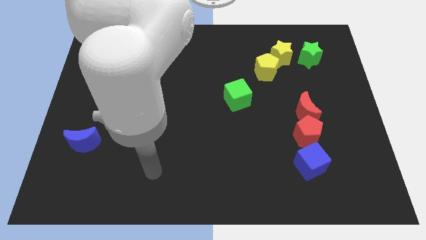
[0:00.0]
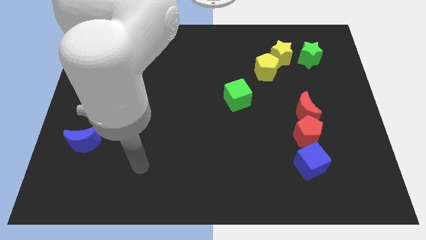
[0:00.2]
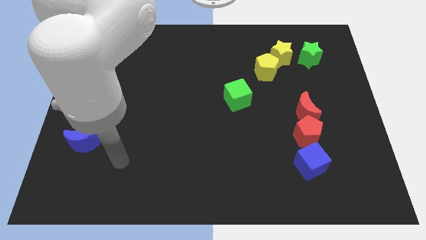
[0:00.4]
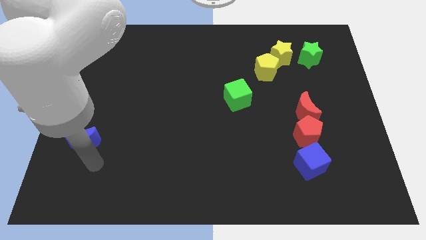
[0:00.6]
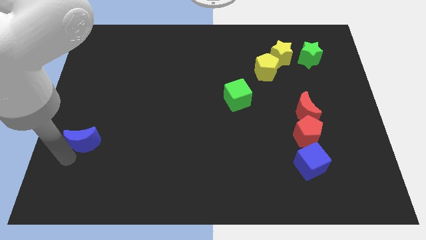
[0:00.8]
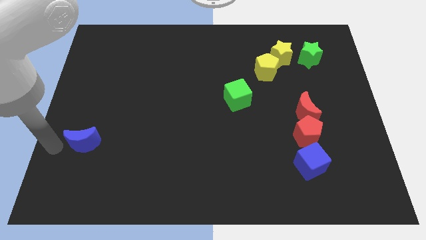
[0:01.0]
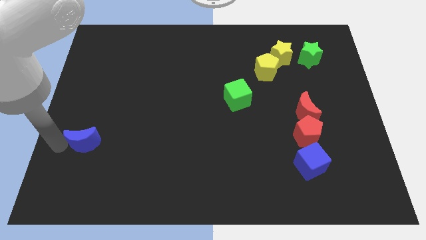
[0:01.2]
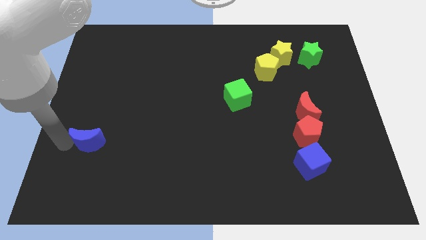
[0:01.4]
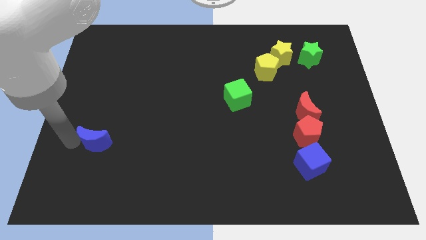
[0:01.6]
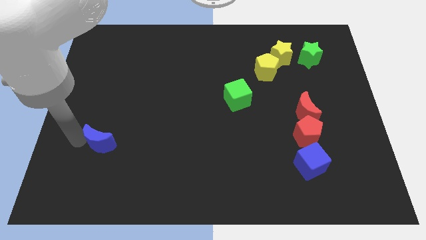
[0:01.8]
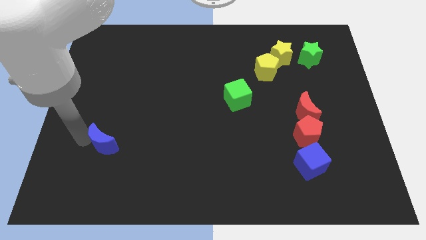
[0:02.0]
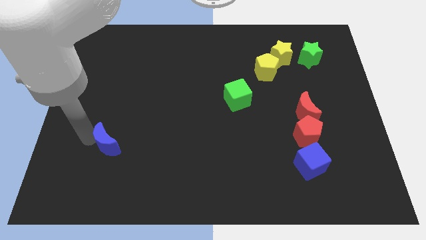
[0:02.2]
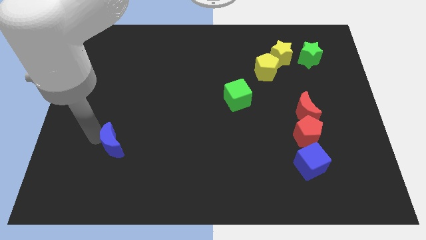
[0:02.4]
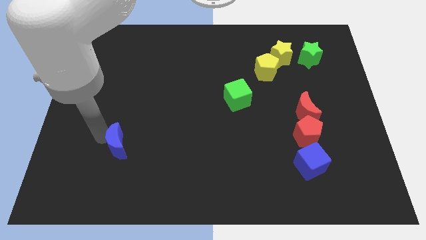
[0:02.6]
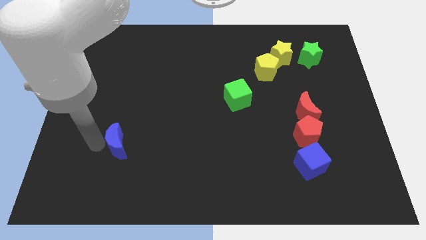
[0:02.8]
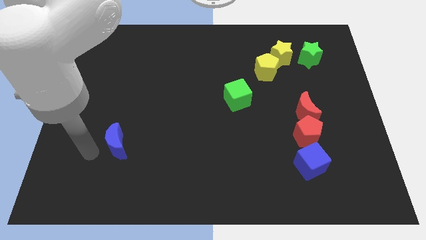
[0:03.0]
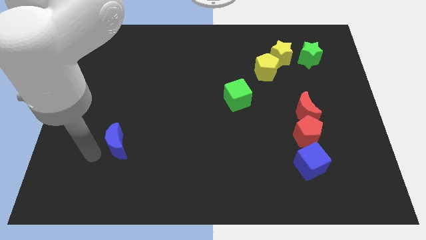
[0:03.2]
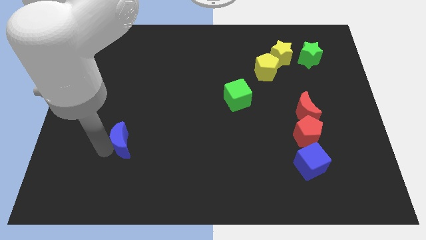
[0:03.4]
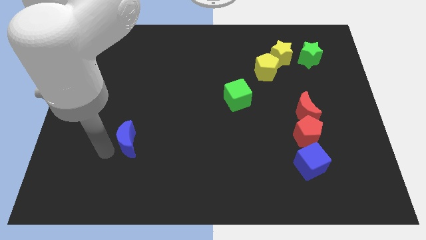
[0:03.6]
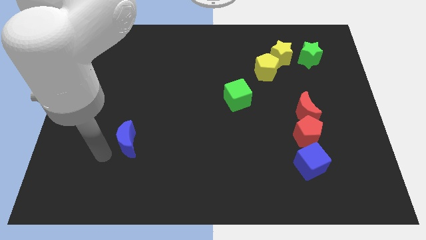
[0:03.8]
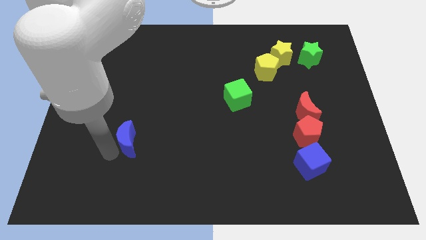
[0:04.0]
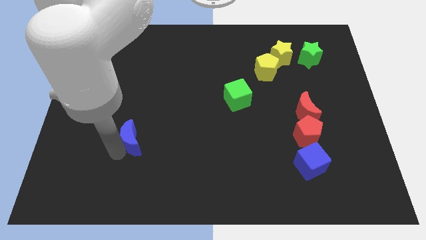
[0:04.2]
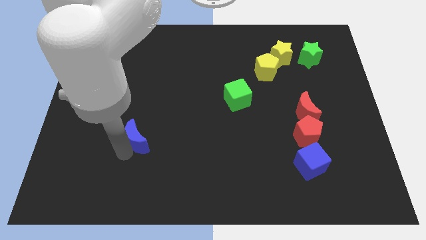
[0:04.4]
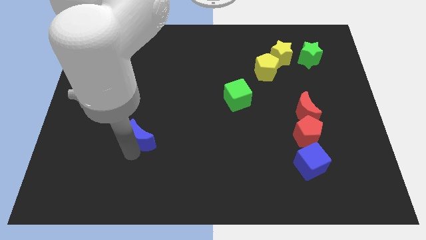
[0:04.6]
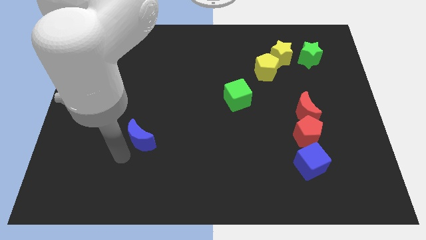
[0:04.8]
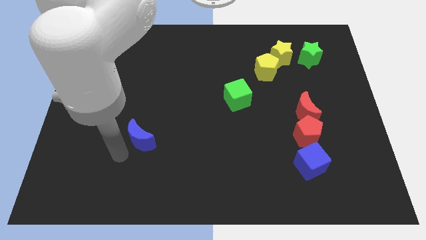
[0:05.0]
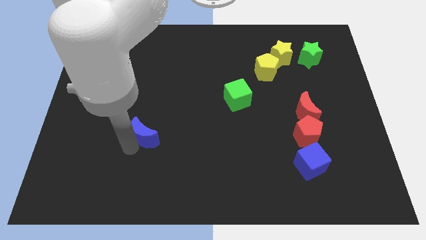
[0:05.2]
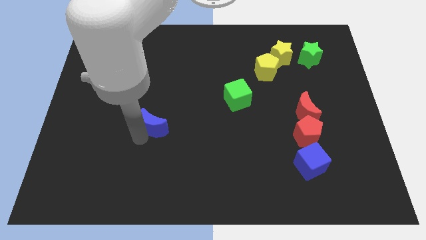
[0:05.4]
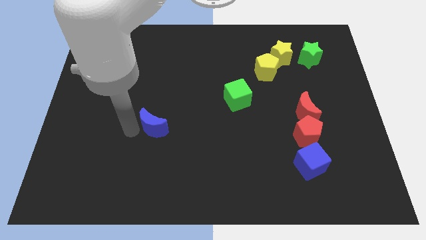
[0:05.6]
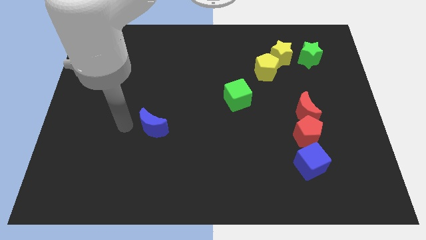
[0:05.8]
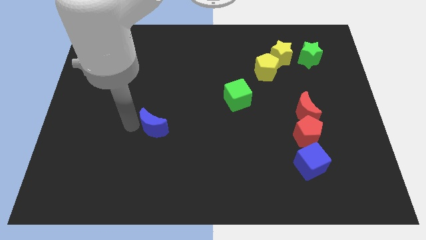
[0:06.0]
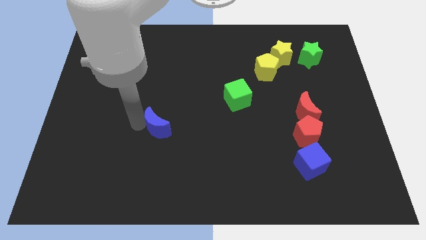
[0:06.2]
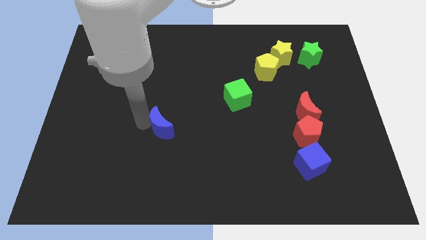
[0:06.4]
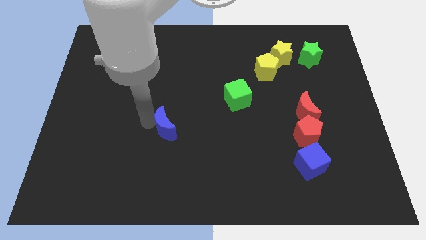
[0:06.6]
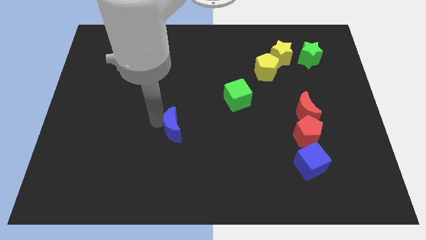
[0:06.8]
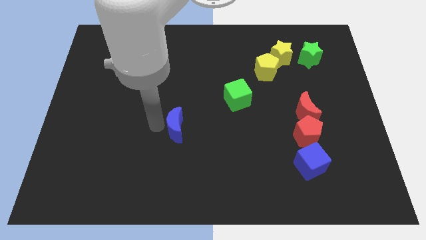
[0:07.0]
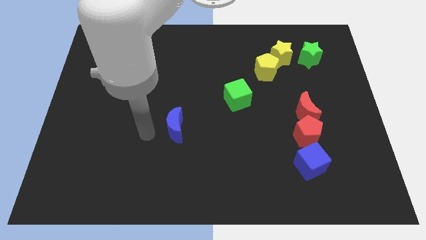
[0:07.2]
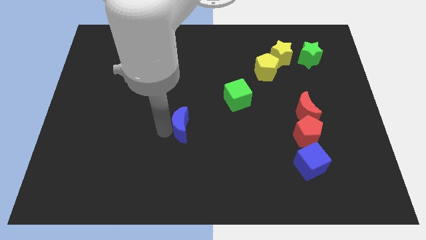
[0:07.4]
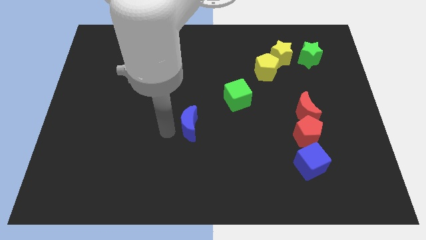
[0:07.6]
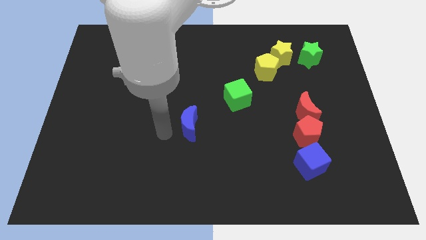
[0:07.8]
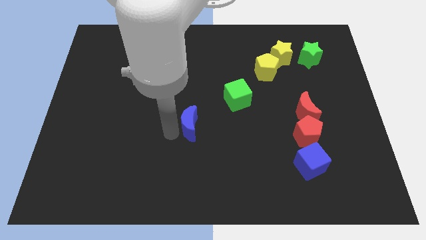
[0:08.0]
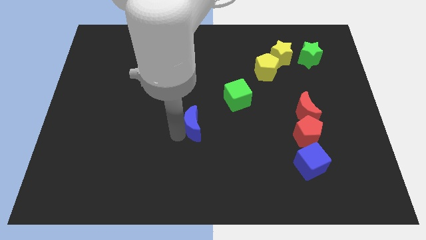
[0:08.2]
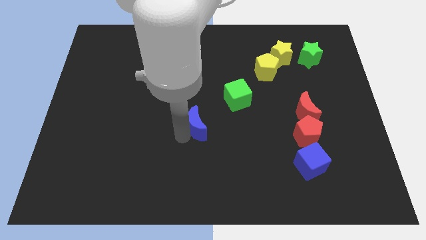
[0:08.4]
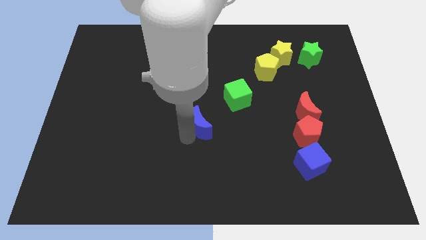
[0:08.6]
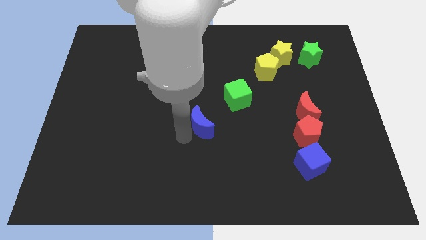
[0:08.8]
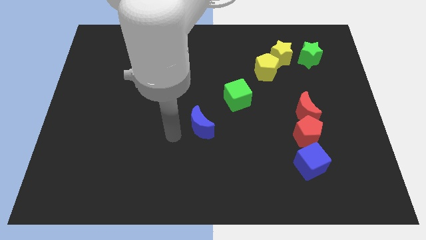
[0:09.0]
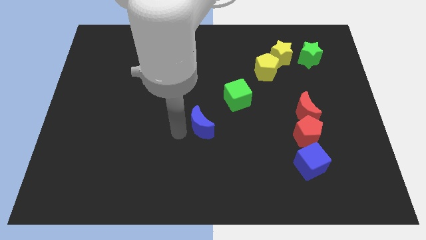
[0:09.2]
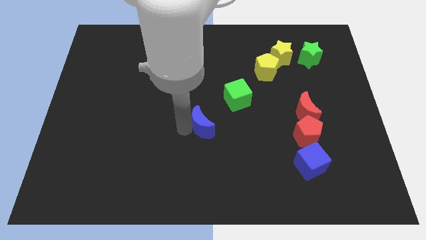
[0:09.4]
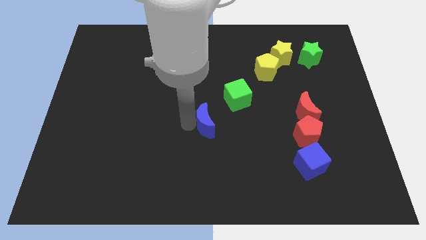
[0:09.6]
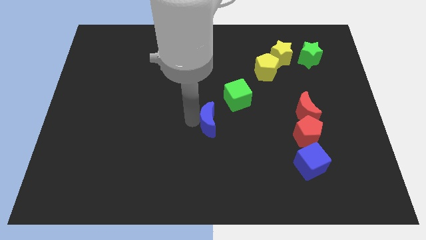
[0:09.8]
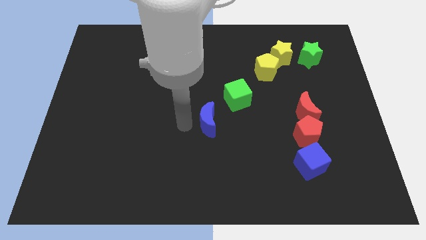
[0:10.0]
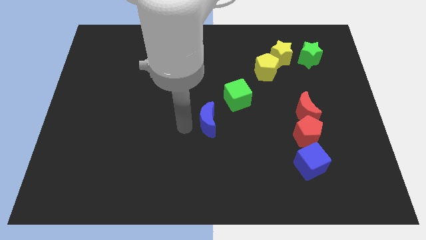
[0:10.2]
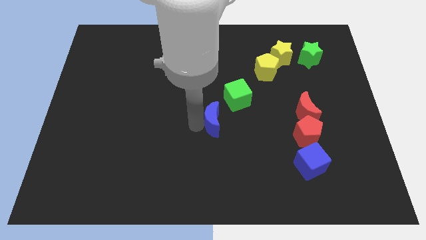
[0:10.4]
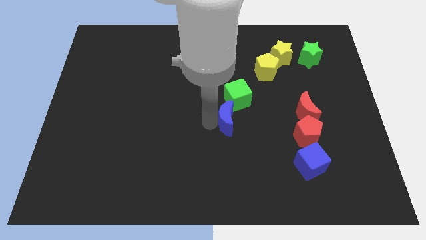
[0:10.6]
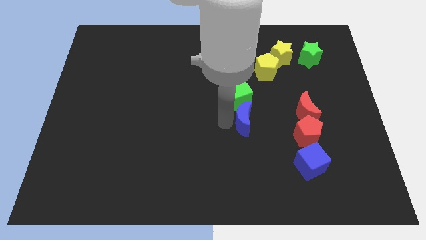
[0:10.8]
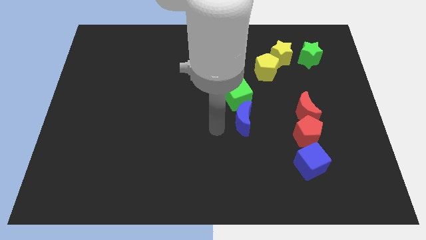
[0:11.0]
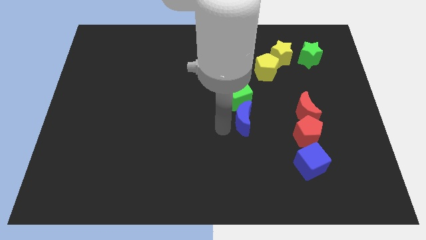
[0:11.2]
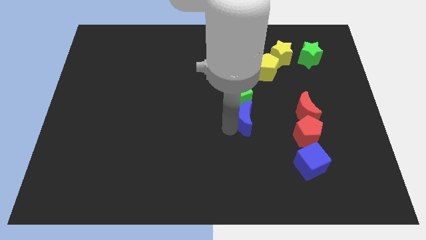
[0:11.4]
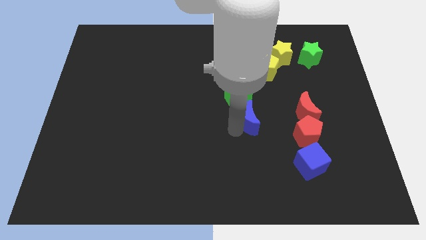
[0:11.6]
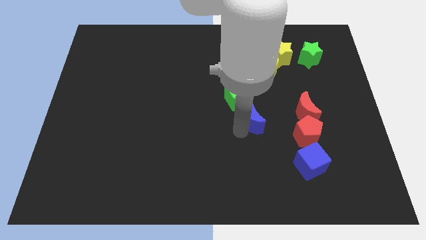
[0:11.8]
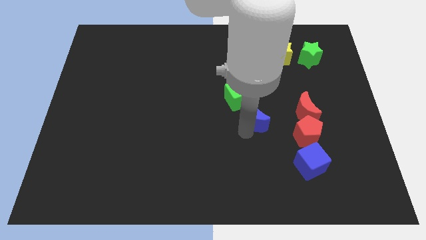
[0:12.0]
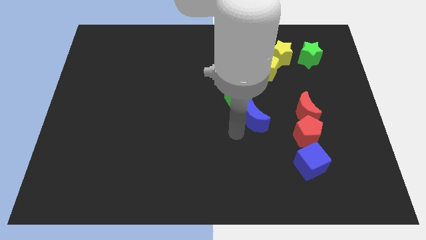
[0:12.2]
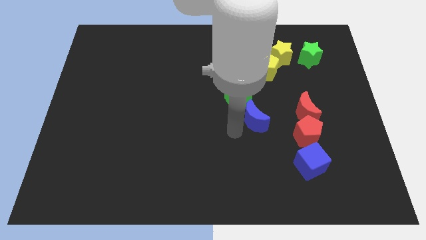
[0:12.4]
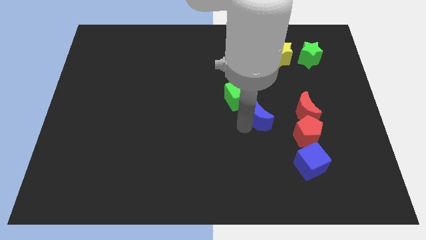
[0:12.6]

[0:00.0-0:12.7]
push the blue moon diagonally up and to the left of the red pentagon

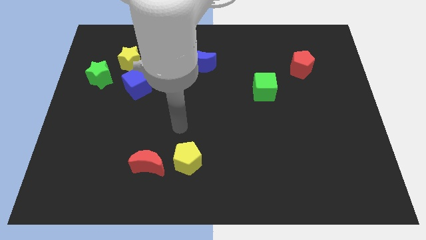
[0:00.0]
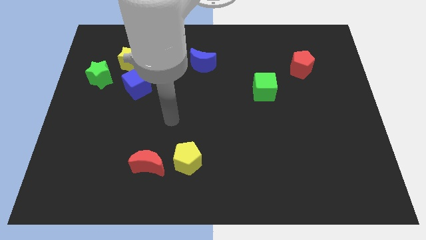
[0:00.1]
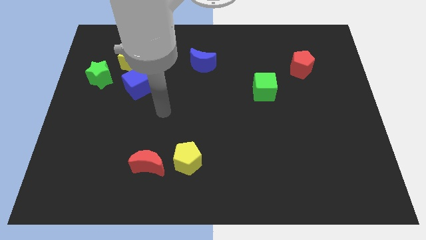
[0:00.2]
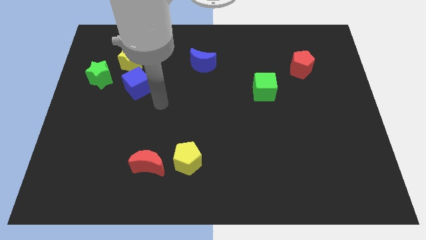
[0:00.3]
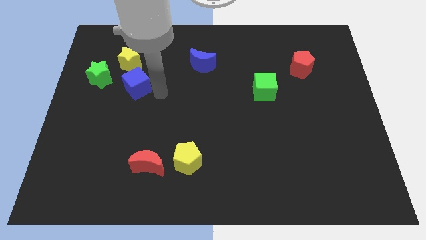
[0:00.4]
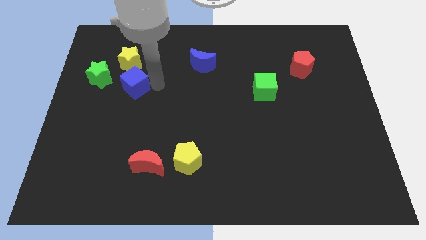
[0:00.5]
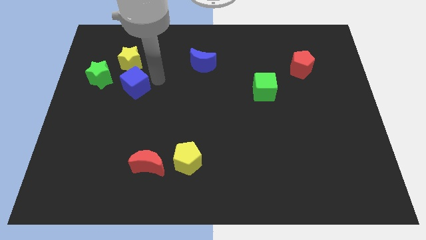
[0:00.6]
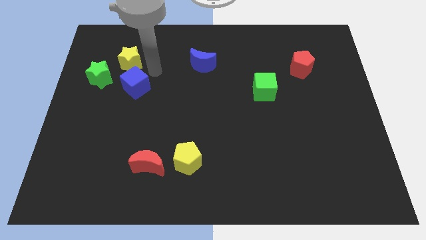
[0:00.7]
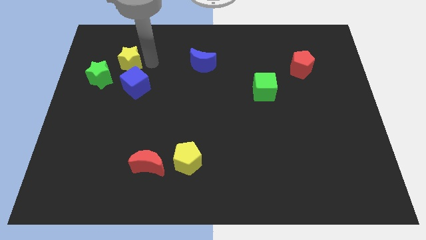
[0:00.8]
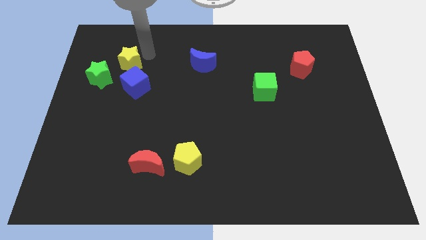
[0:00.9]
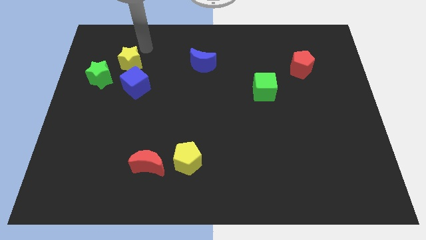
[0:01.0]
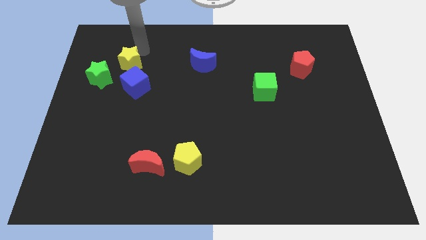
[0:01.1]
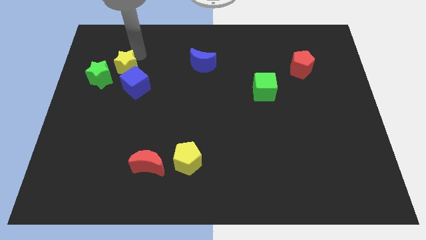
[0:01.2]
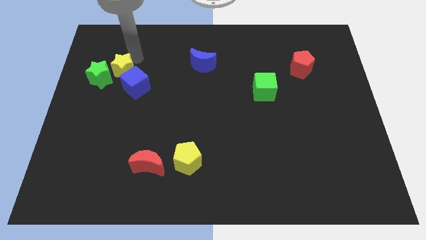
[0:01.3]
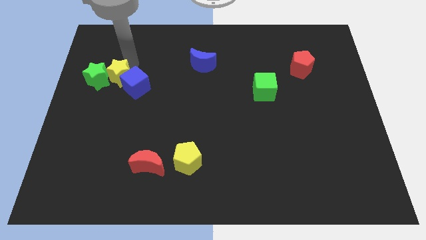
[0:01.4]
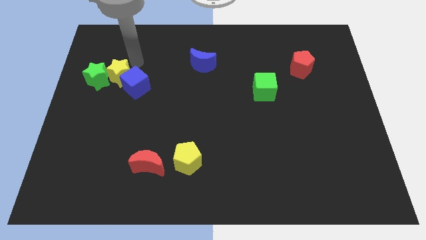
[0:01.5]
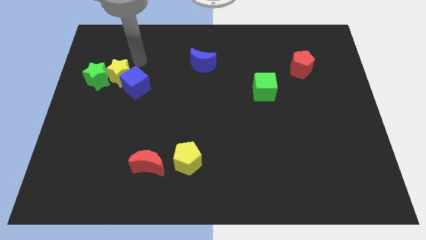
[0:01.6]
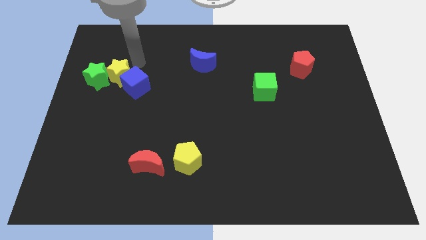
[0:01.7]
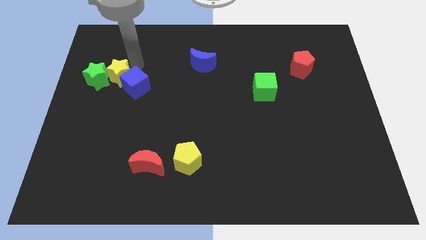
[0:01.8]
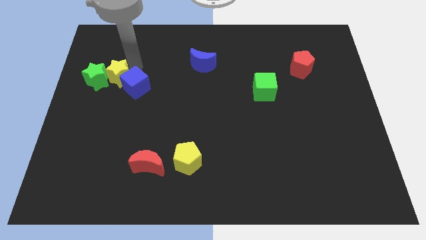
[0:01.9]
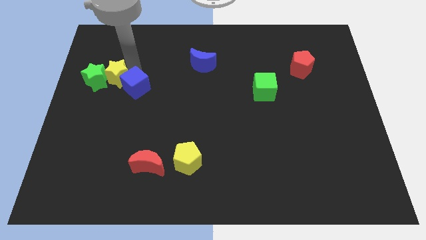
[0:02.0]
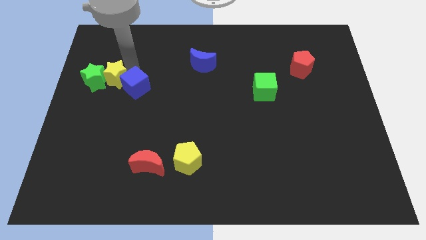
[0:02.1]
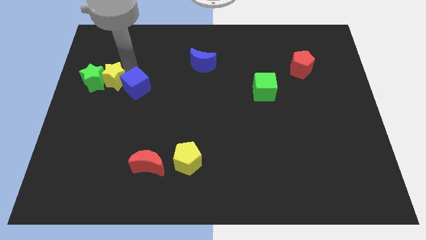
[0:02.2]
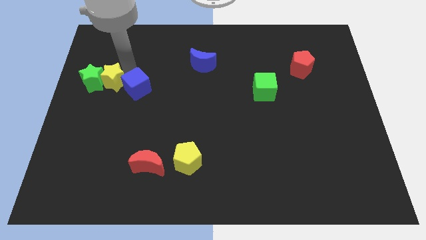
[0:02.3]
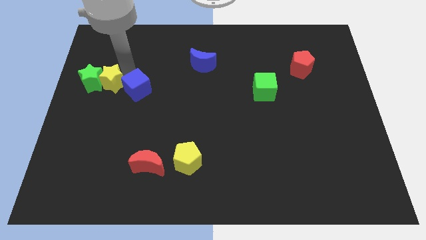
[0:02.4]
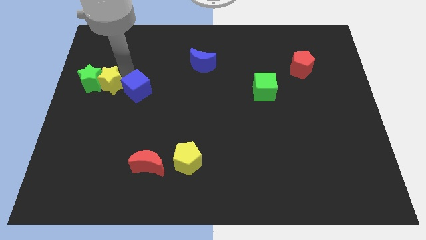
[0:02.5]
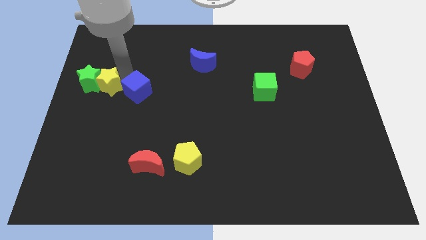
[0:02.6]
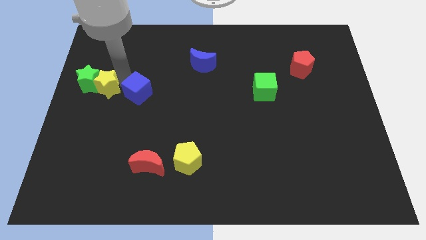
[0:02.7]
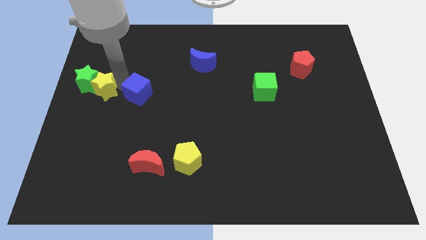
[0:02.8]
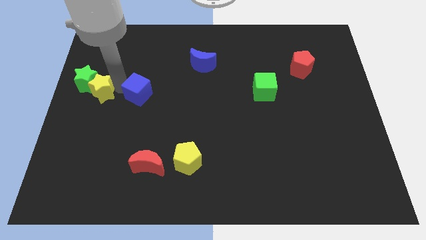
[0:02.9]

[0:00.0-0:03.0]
move the yellow star to the bottom side of the green star
